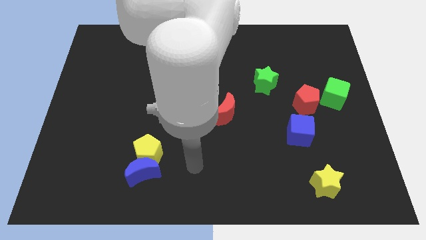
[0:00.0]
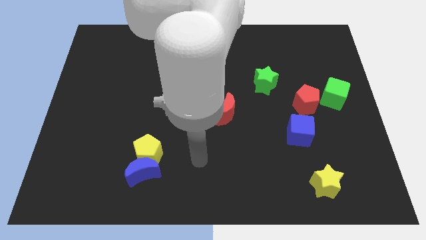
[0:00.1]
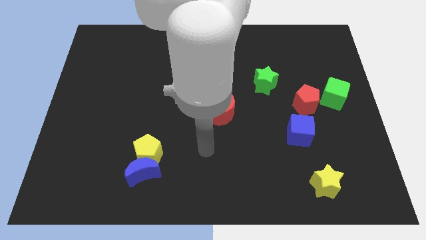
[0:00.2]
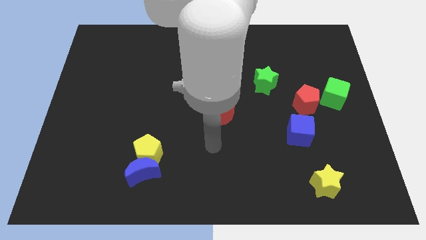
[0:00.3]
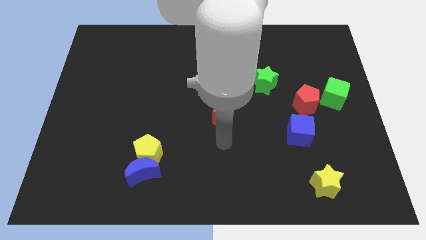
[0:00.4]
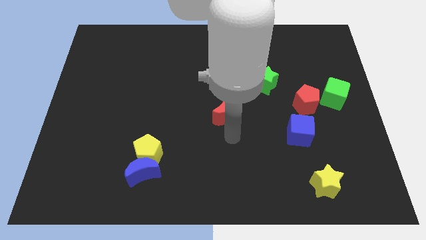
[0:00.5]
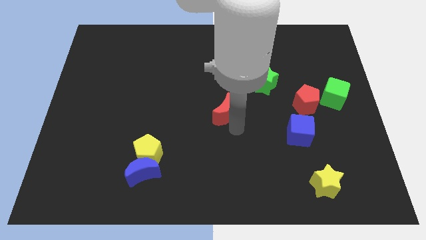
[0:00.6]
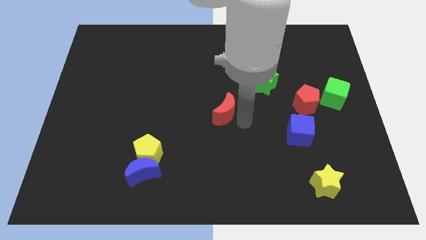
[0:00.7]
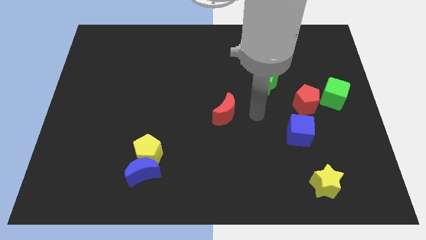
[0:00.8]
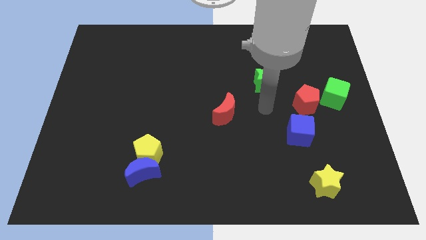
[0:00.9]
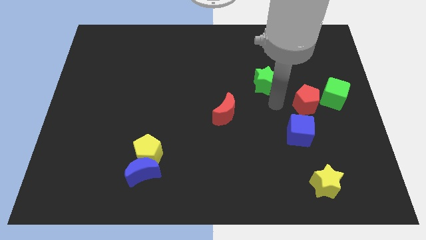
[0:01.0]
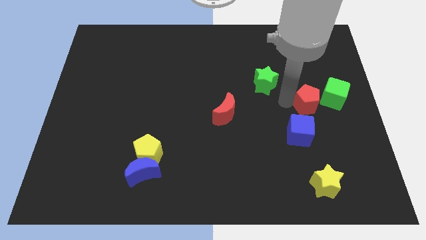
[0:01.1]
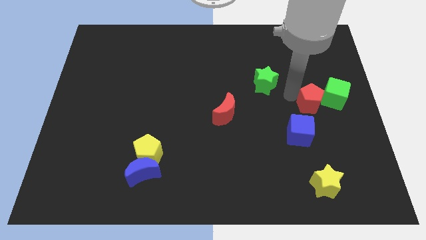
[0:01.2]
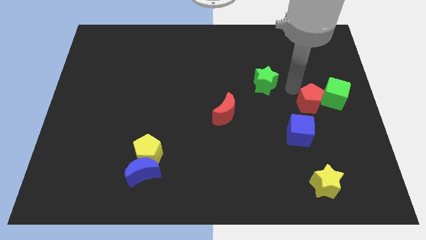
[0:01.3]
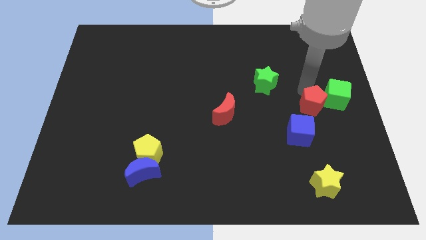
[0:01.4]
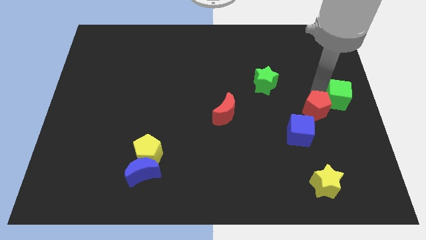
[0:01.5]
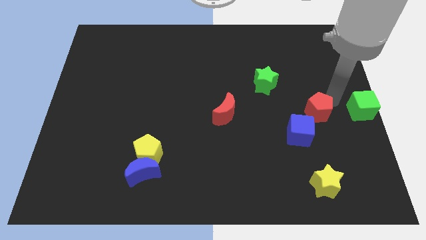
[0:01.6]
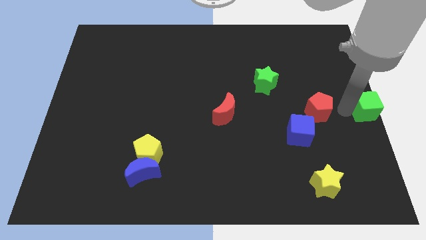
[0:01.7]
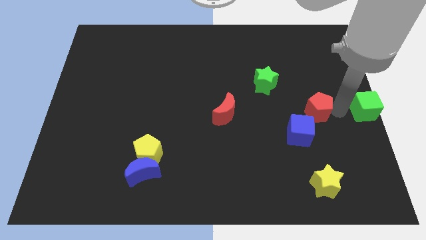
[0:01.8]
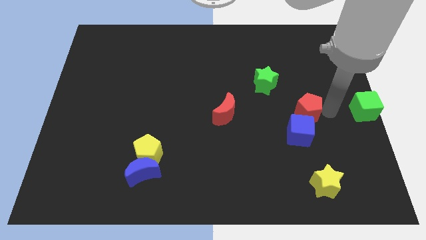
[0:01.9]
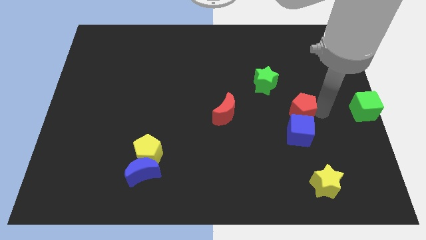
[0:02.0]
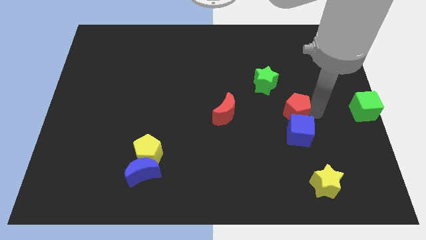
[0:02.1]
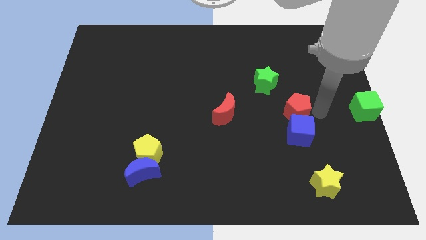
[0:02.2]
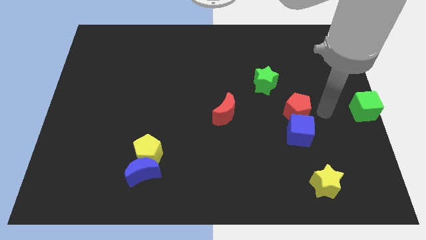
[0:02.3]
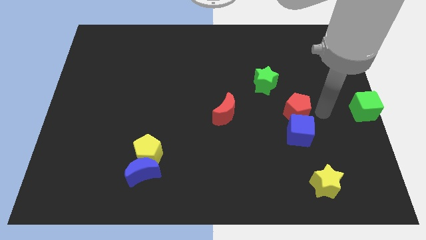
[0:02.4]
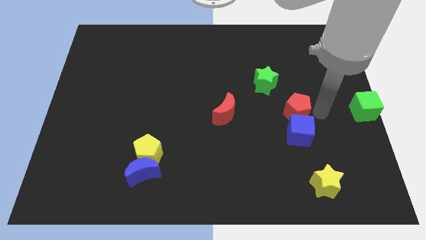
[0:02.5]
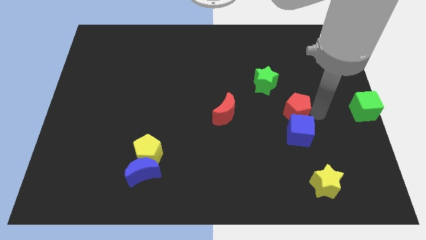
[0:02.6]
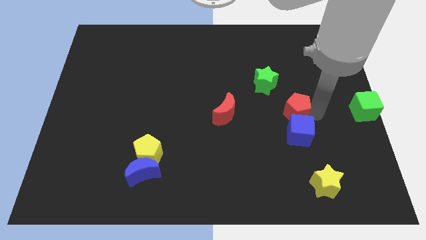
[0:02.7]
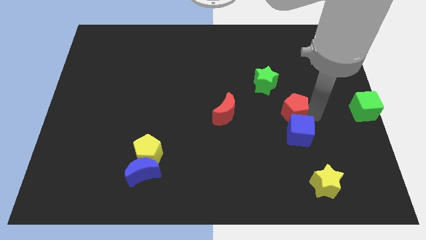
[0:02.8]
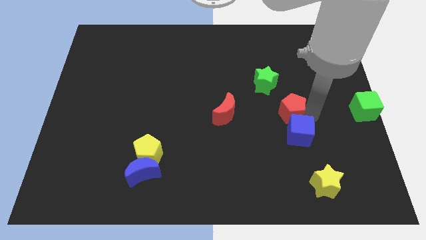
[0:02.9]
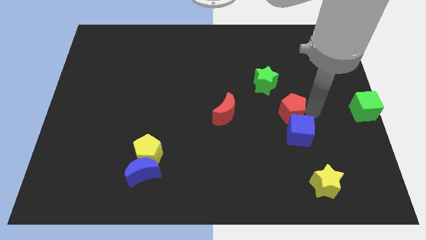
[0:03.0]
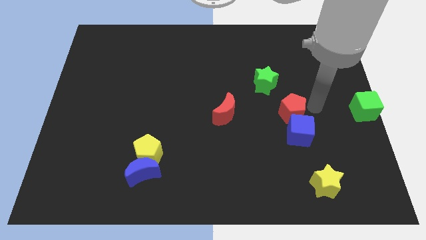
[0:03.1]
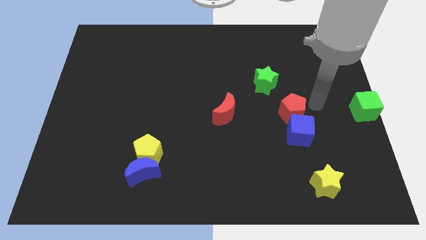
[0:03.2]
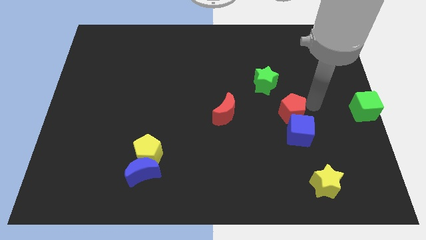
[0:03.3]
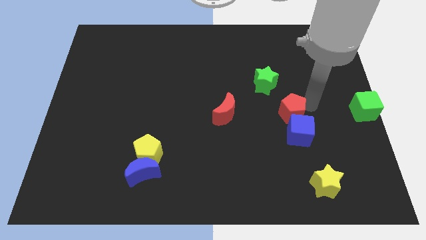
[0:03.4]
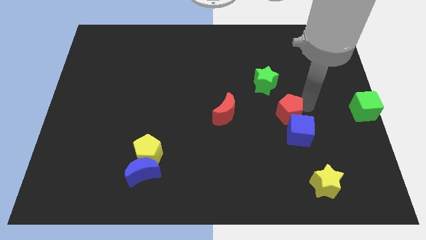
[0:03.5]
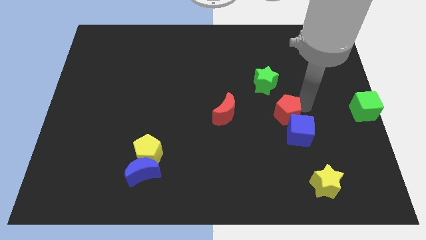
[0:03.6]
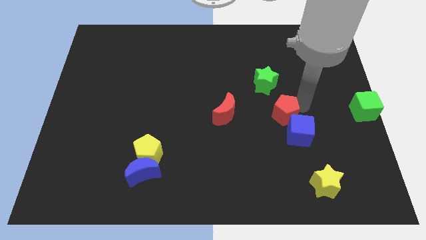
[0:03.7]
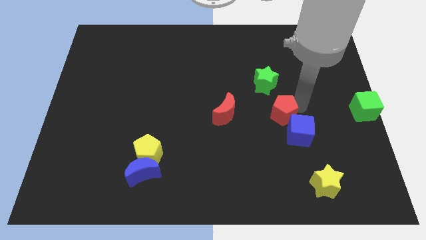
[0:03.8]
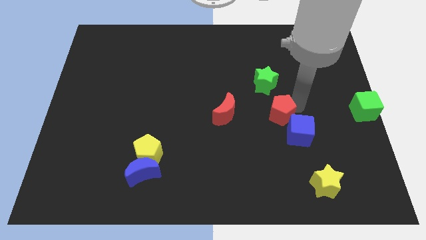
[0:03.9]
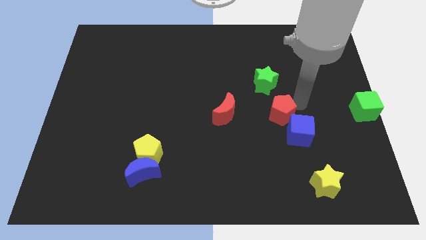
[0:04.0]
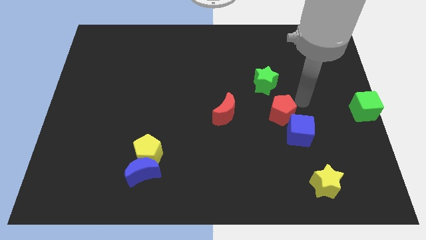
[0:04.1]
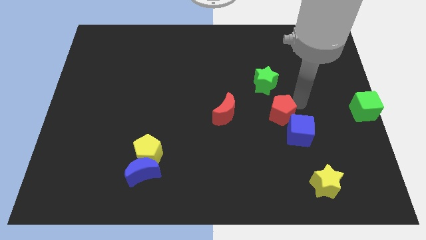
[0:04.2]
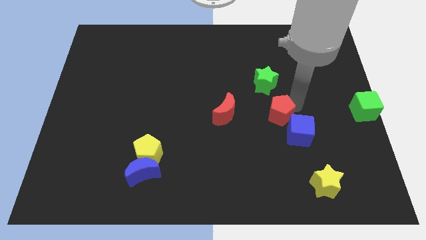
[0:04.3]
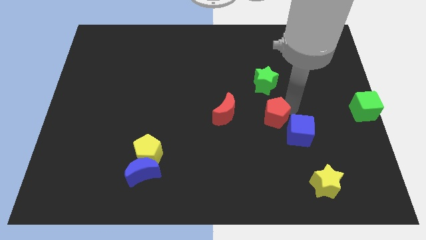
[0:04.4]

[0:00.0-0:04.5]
slide the red pentagon to the left of the blue cube

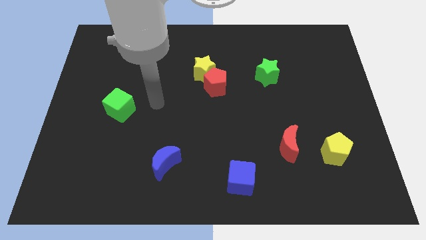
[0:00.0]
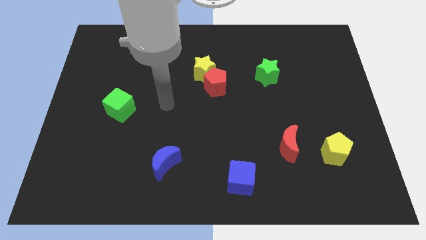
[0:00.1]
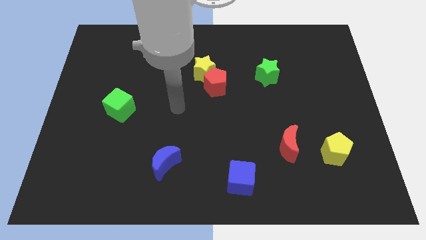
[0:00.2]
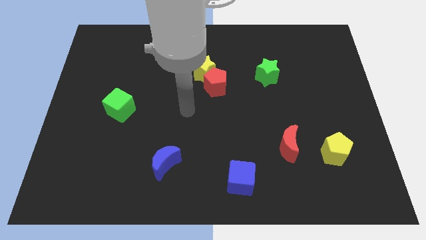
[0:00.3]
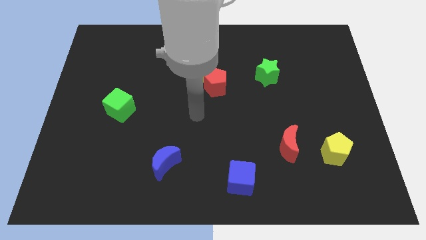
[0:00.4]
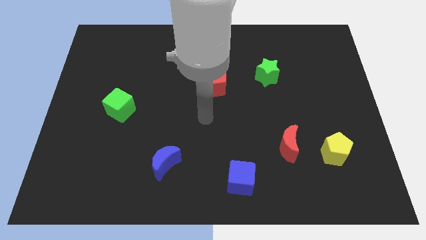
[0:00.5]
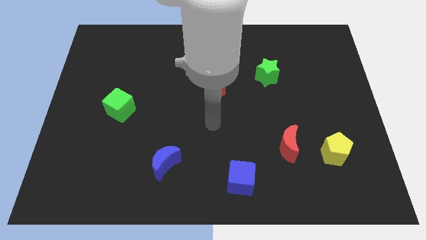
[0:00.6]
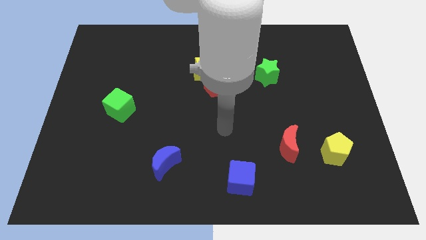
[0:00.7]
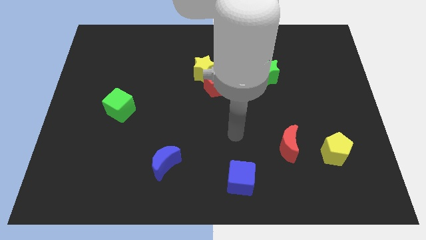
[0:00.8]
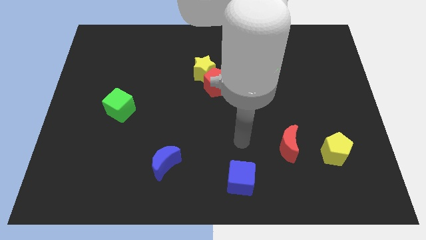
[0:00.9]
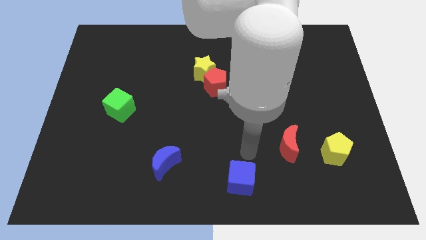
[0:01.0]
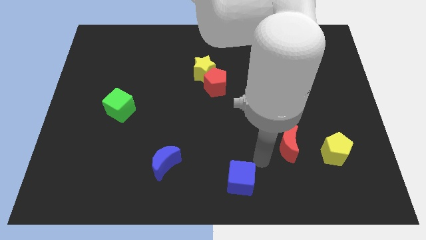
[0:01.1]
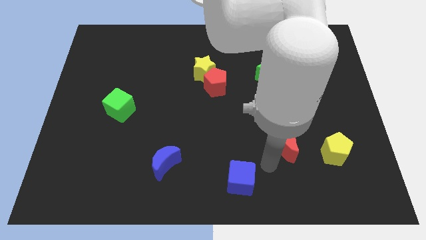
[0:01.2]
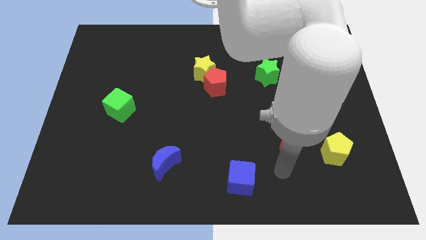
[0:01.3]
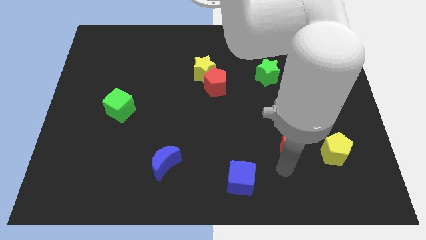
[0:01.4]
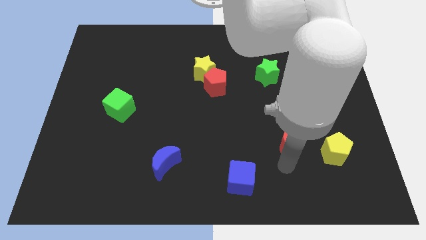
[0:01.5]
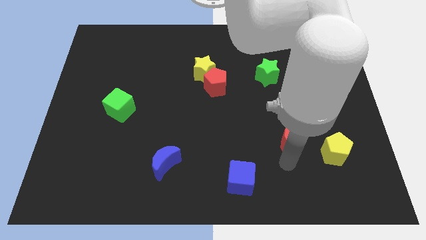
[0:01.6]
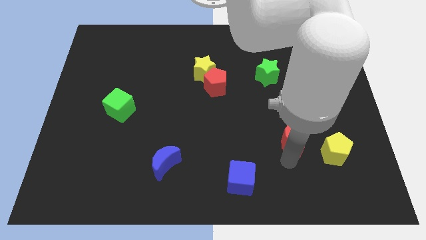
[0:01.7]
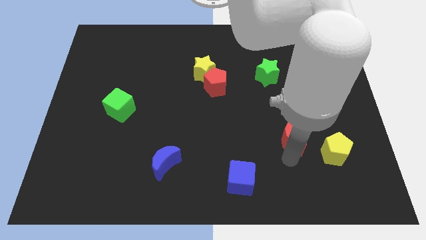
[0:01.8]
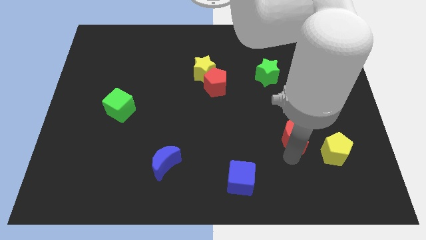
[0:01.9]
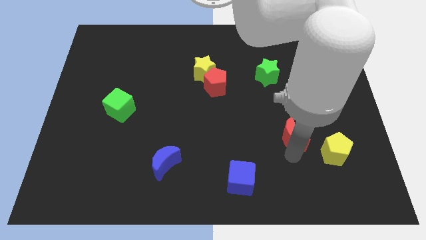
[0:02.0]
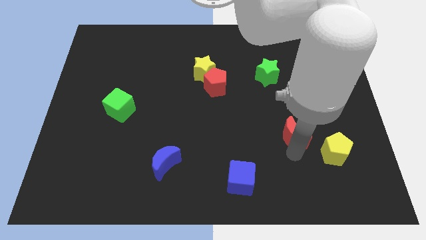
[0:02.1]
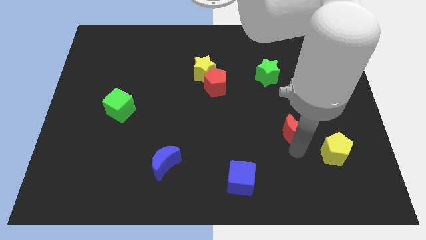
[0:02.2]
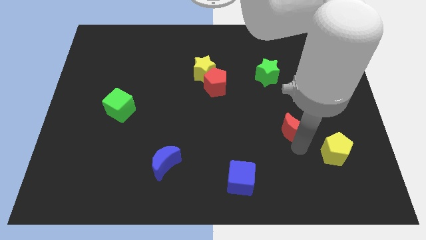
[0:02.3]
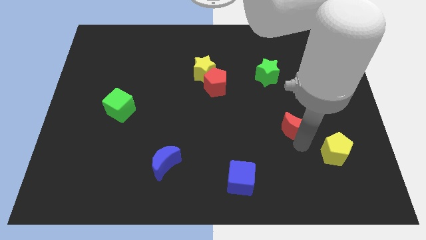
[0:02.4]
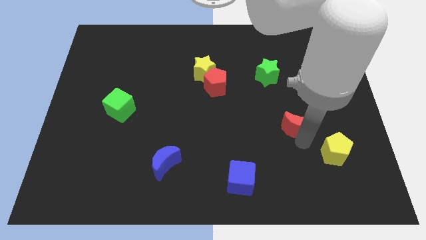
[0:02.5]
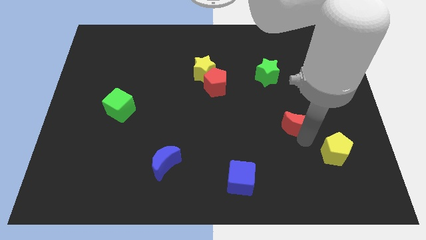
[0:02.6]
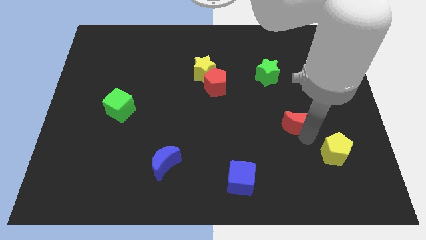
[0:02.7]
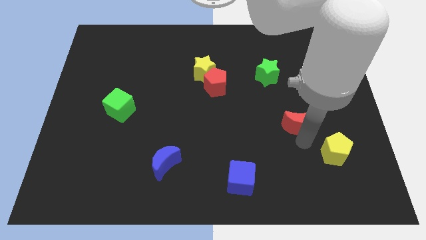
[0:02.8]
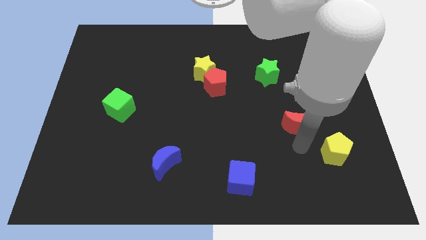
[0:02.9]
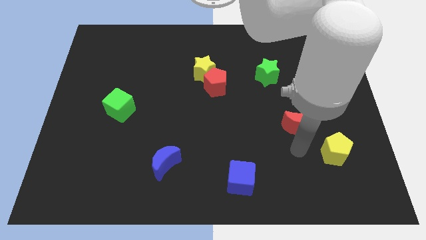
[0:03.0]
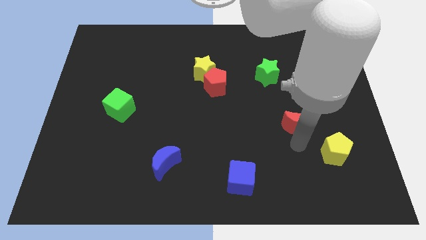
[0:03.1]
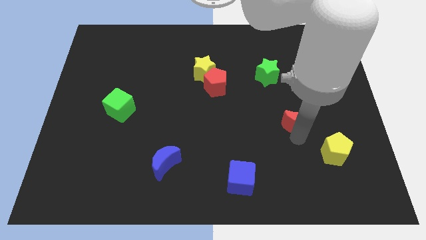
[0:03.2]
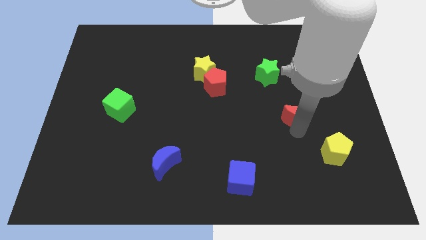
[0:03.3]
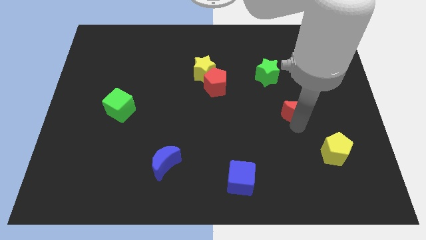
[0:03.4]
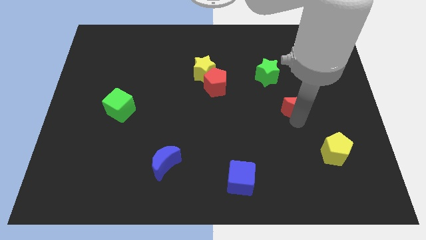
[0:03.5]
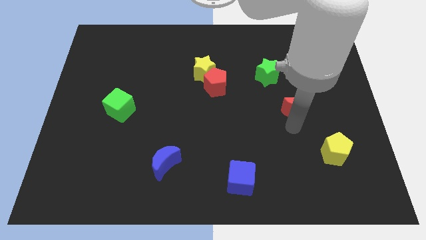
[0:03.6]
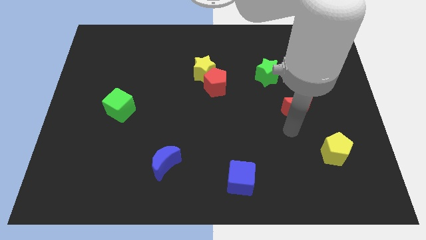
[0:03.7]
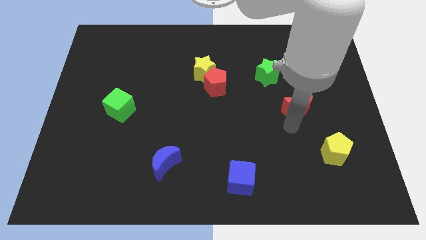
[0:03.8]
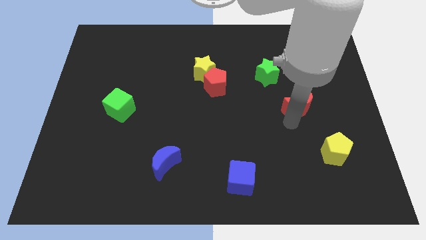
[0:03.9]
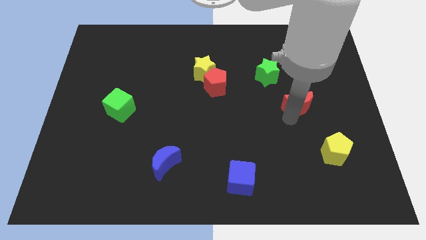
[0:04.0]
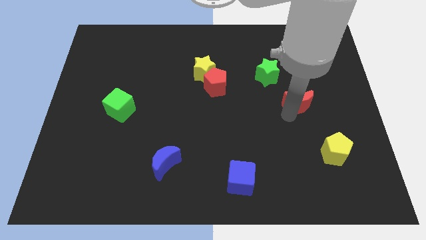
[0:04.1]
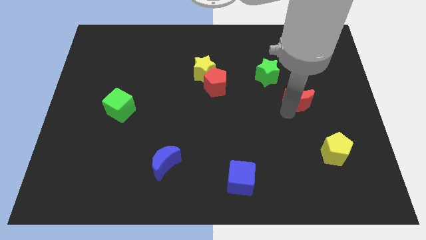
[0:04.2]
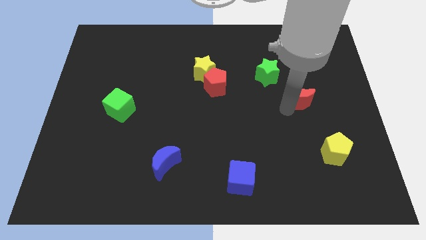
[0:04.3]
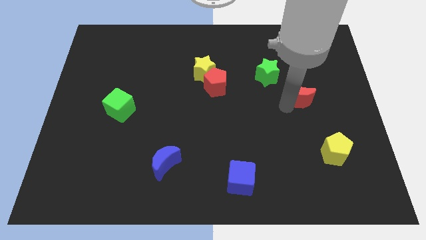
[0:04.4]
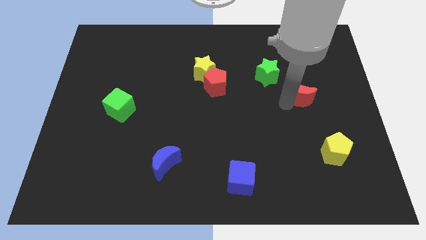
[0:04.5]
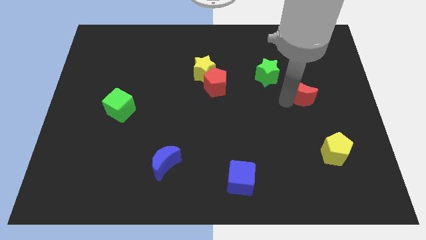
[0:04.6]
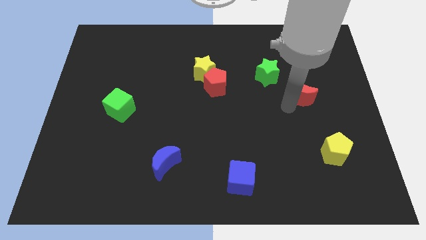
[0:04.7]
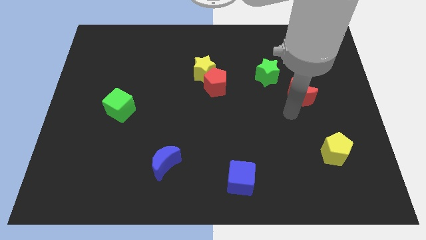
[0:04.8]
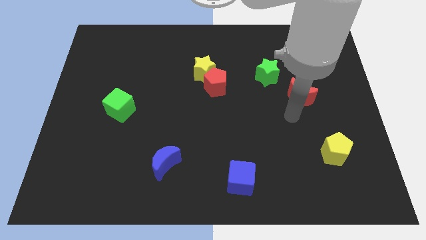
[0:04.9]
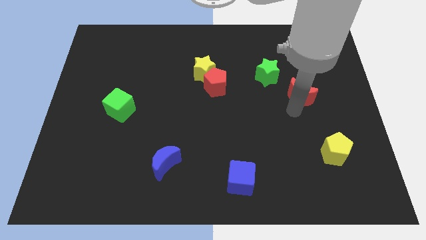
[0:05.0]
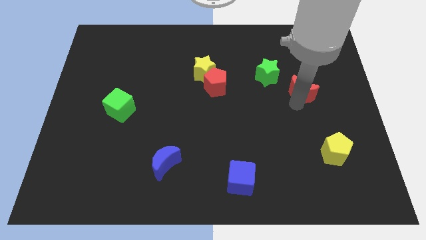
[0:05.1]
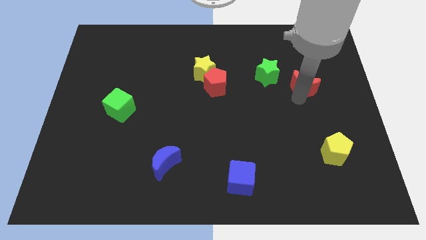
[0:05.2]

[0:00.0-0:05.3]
put the red moon just right of the green star
